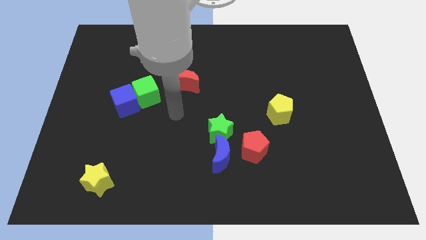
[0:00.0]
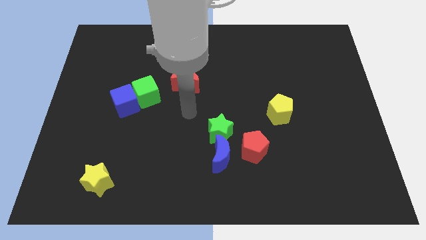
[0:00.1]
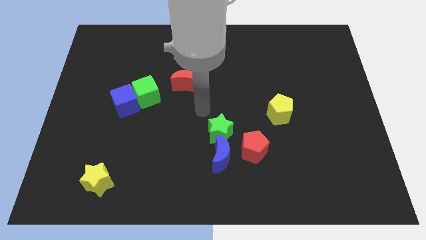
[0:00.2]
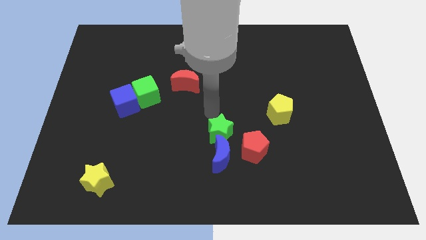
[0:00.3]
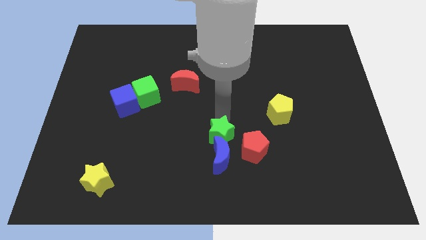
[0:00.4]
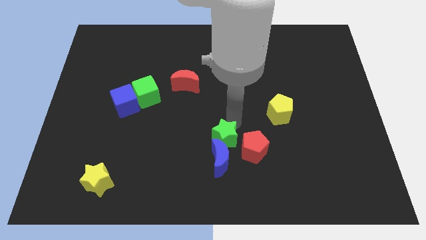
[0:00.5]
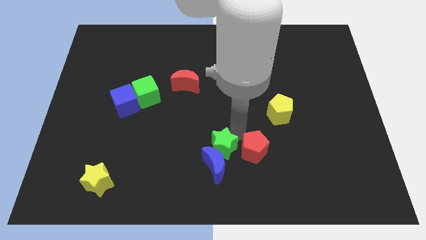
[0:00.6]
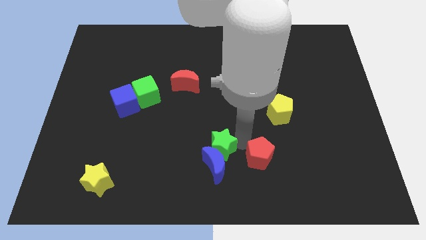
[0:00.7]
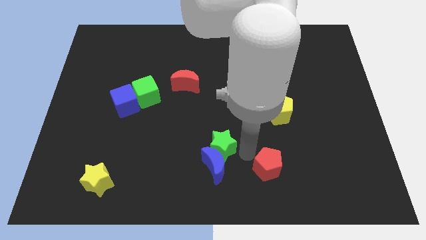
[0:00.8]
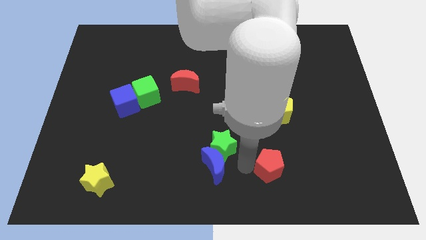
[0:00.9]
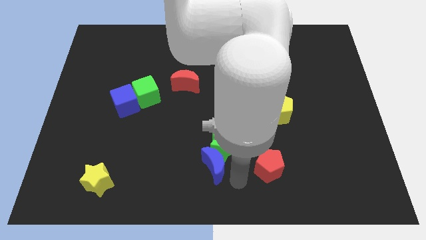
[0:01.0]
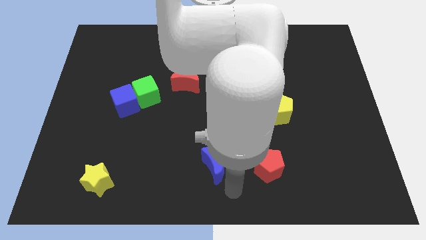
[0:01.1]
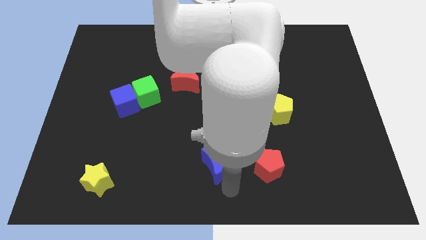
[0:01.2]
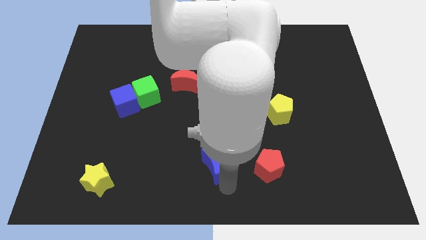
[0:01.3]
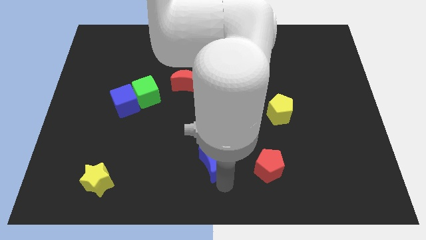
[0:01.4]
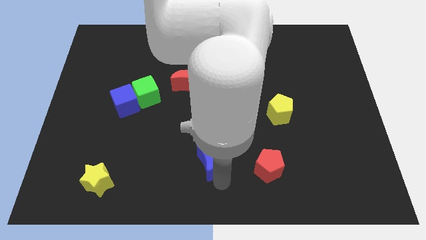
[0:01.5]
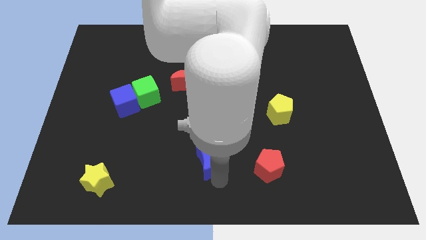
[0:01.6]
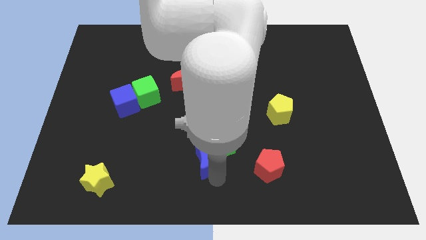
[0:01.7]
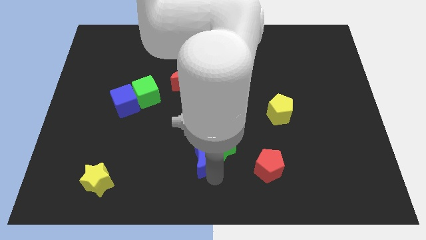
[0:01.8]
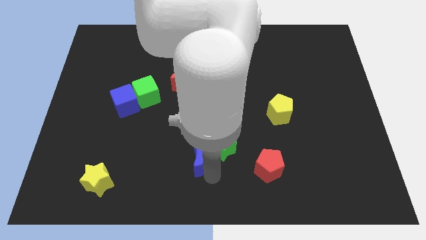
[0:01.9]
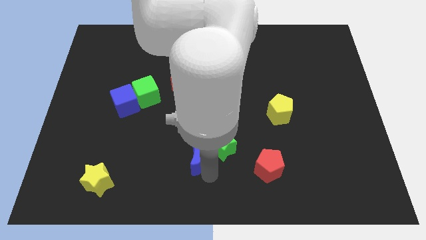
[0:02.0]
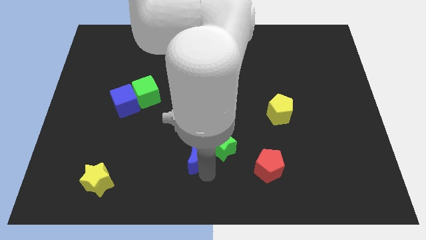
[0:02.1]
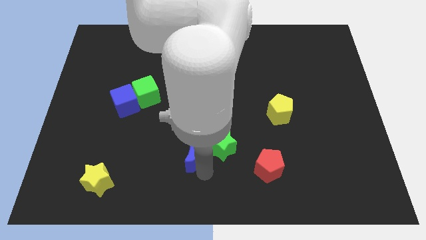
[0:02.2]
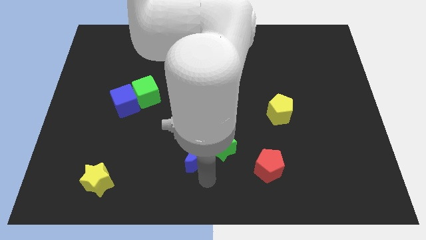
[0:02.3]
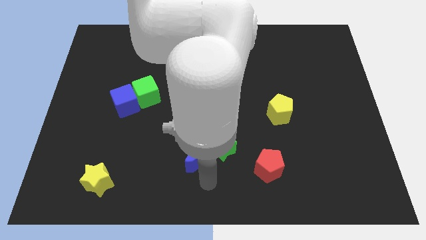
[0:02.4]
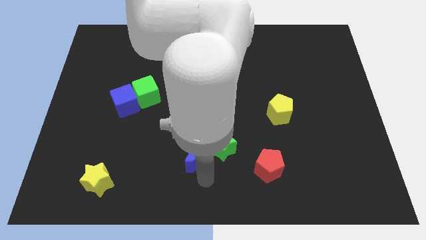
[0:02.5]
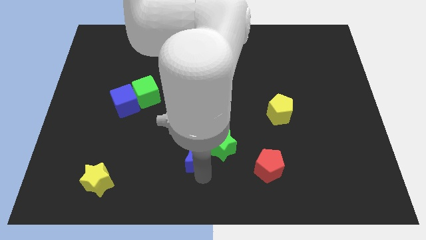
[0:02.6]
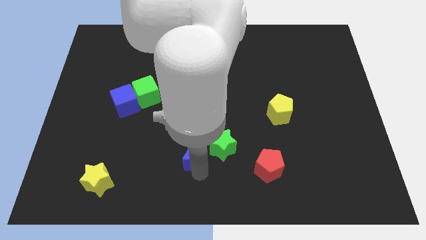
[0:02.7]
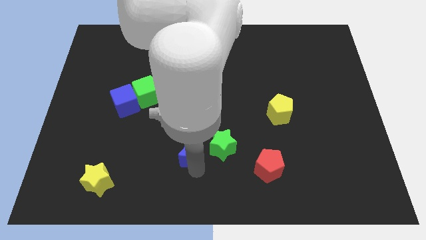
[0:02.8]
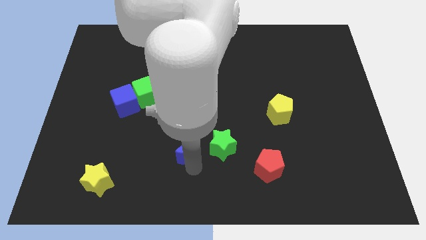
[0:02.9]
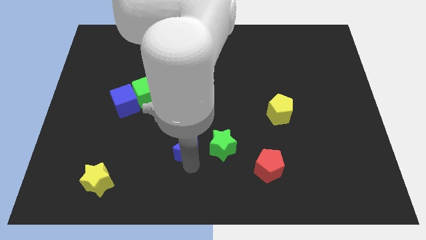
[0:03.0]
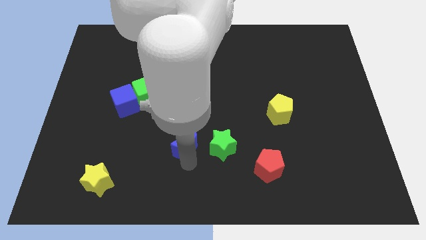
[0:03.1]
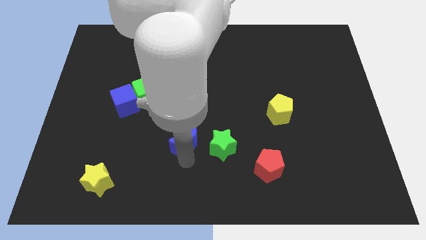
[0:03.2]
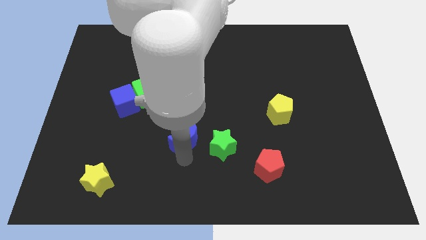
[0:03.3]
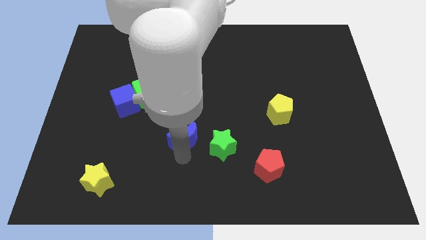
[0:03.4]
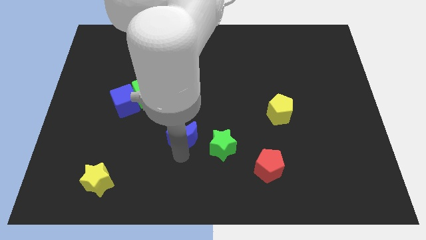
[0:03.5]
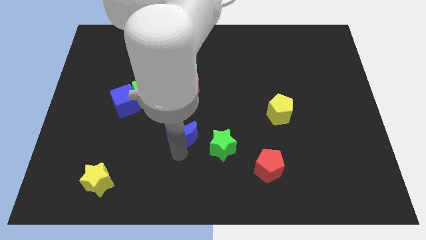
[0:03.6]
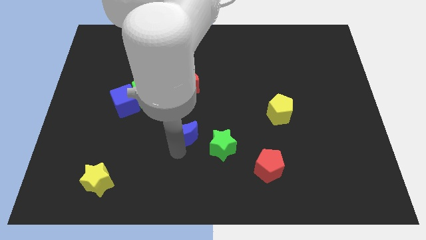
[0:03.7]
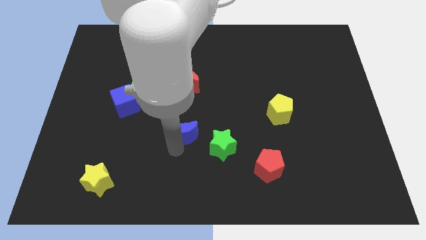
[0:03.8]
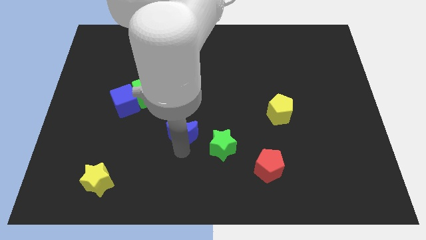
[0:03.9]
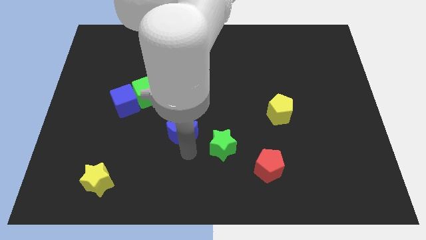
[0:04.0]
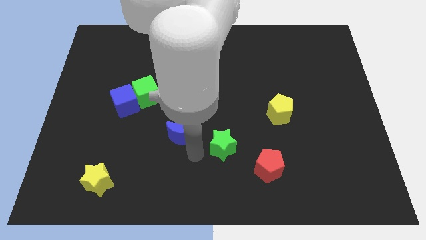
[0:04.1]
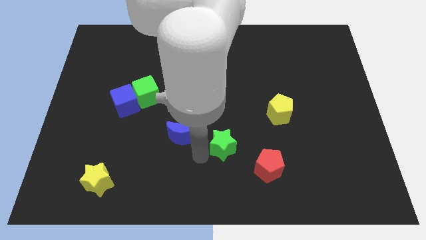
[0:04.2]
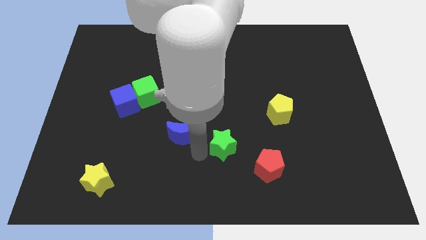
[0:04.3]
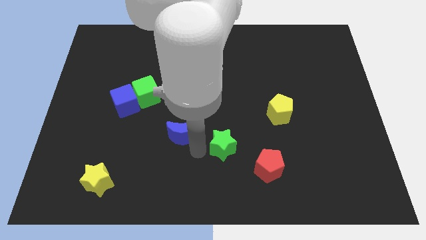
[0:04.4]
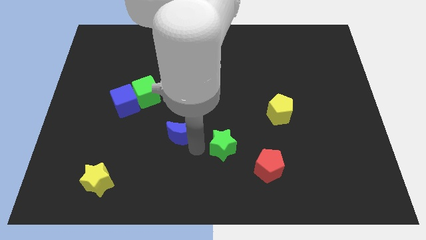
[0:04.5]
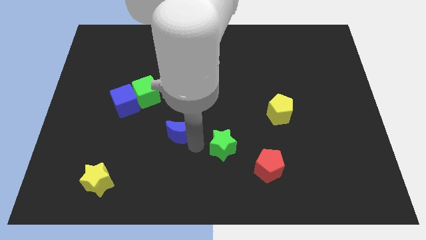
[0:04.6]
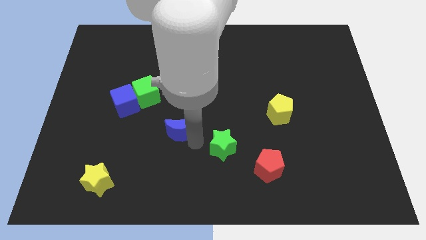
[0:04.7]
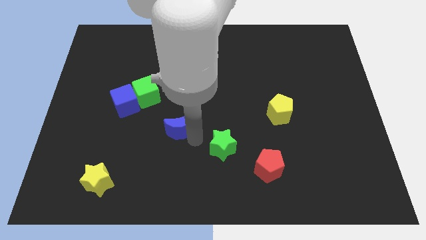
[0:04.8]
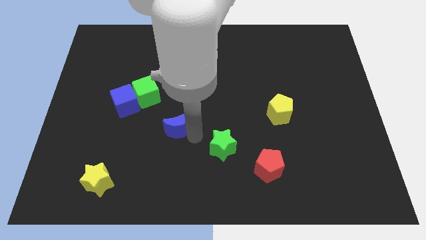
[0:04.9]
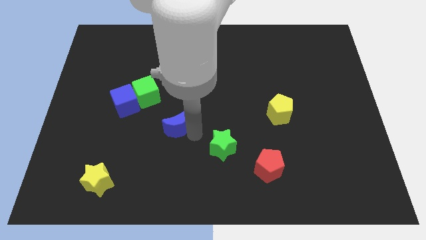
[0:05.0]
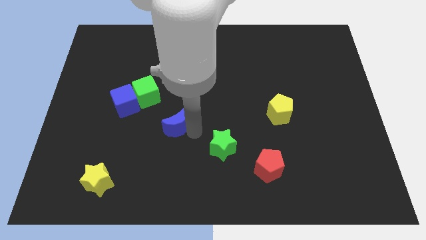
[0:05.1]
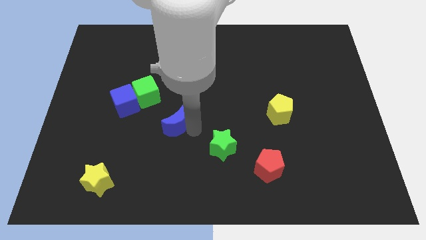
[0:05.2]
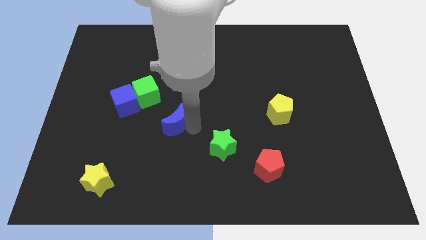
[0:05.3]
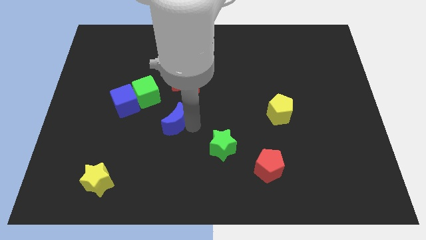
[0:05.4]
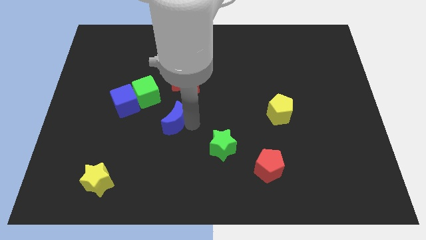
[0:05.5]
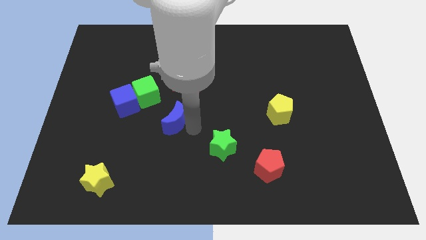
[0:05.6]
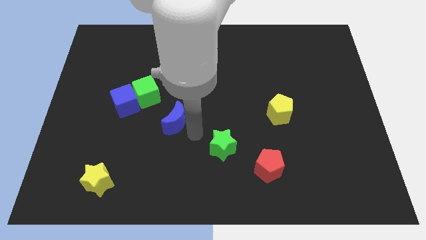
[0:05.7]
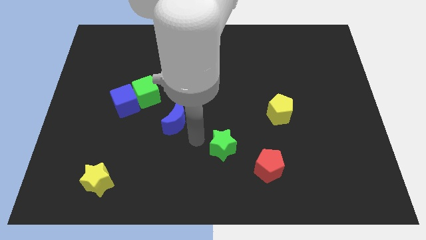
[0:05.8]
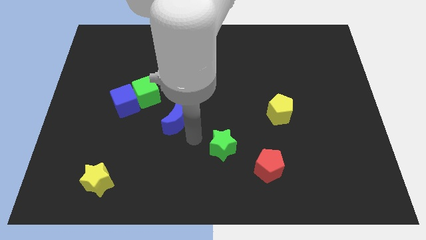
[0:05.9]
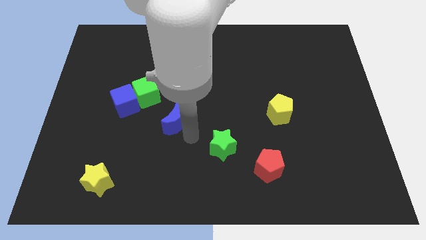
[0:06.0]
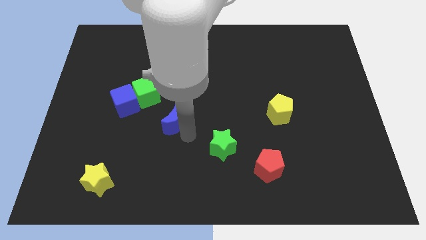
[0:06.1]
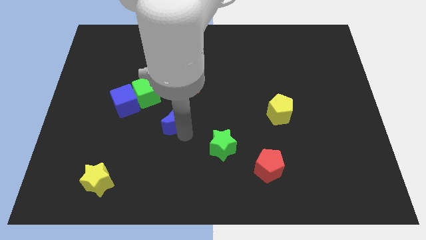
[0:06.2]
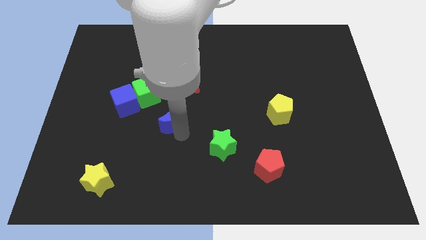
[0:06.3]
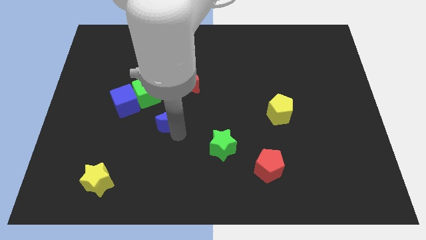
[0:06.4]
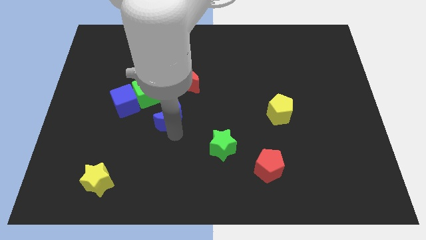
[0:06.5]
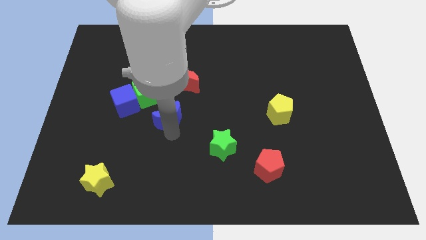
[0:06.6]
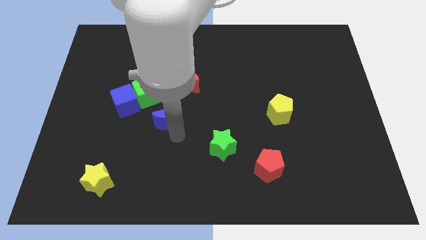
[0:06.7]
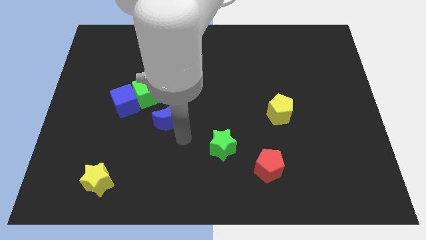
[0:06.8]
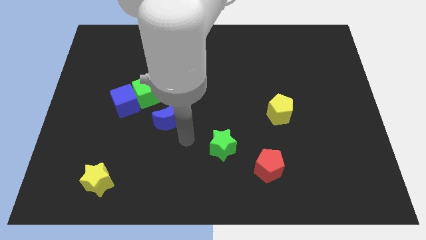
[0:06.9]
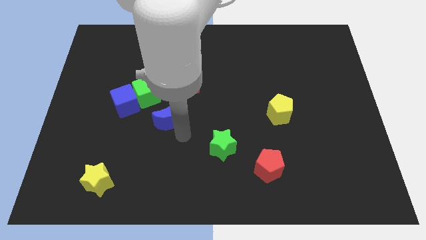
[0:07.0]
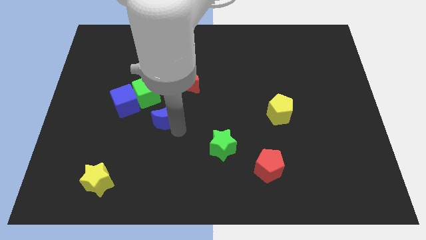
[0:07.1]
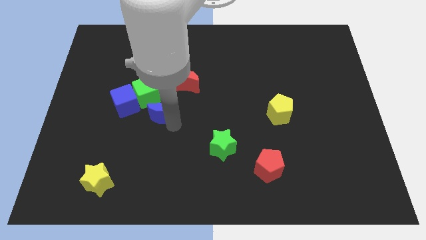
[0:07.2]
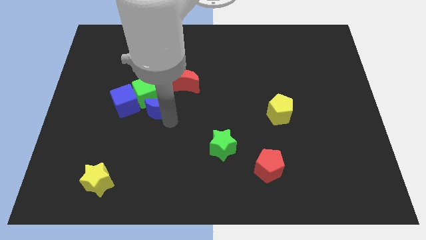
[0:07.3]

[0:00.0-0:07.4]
slide the blue moon towards the green cube

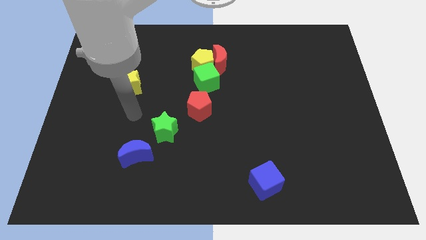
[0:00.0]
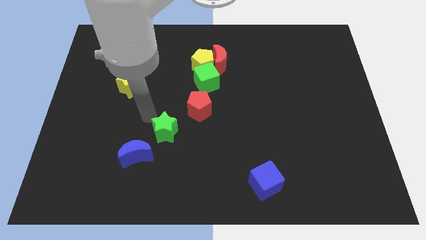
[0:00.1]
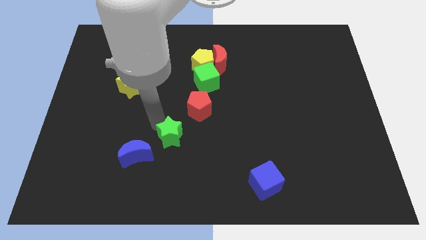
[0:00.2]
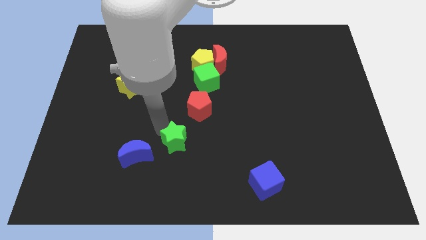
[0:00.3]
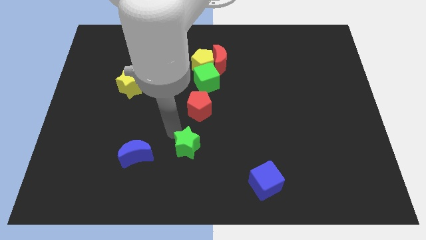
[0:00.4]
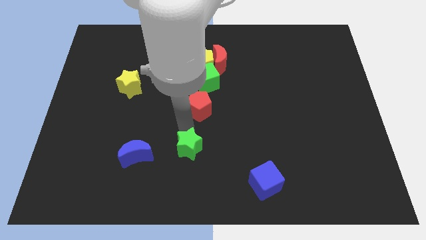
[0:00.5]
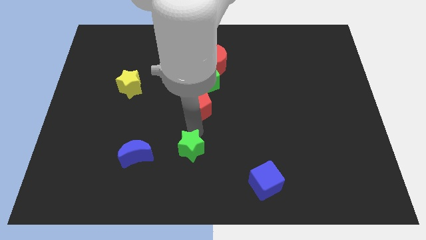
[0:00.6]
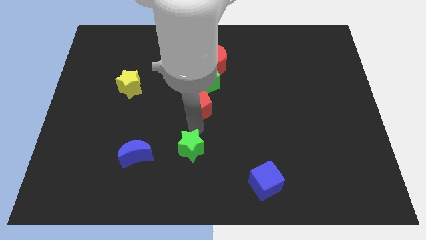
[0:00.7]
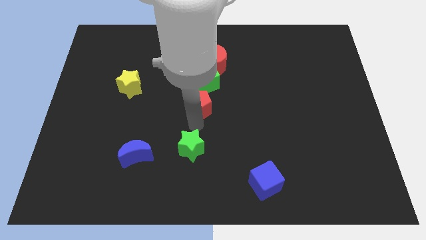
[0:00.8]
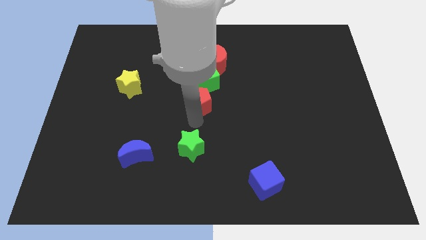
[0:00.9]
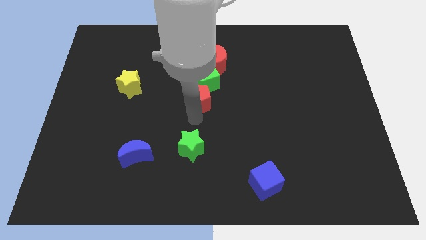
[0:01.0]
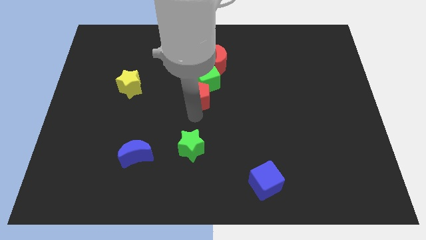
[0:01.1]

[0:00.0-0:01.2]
push the red pentagon to the green cube
